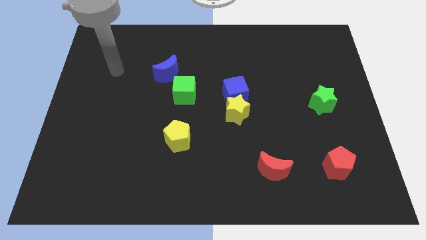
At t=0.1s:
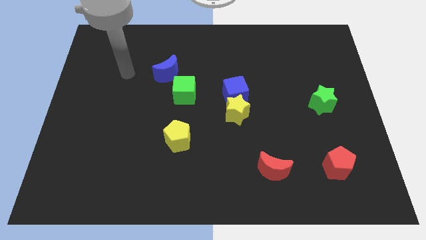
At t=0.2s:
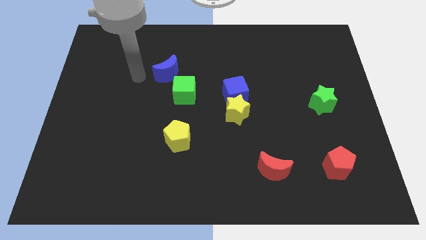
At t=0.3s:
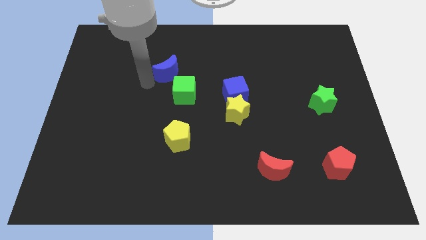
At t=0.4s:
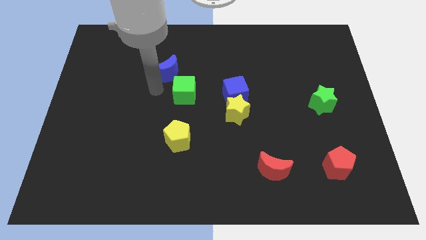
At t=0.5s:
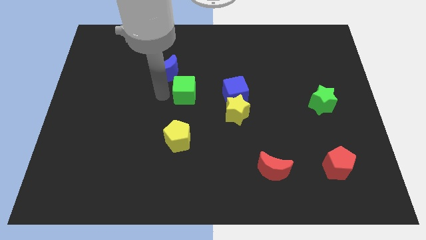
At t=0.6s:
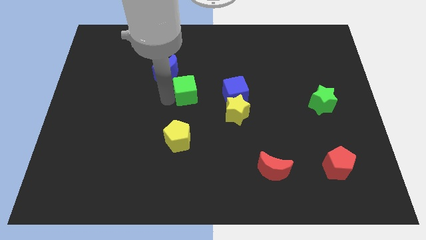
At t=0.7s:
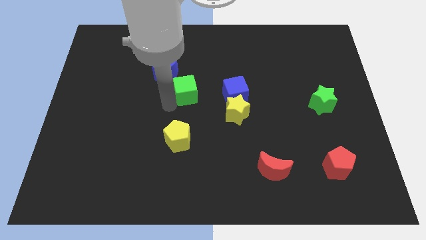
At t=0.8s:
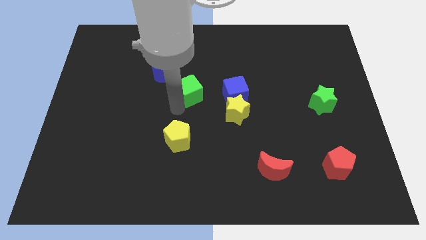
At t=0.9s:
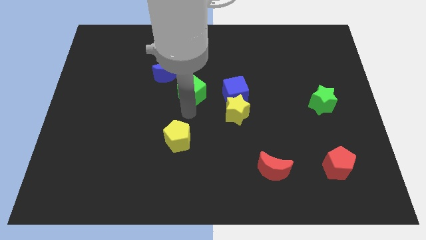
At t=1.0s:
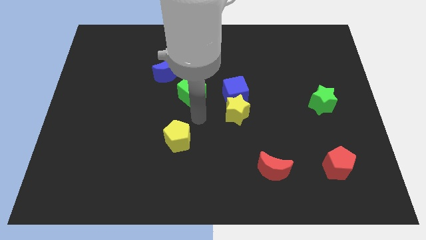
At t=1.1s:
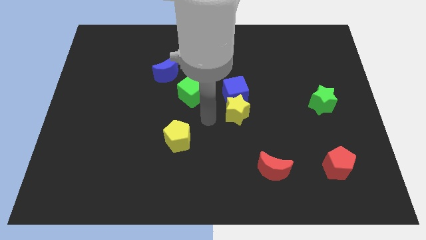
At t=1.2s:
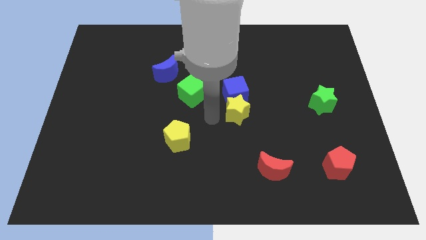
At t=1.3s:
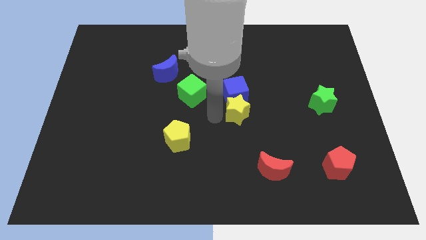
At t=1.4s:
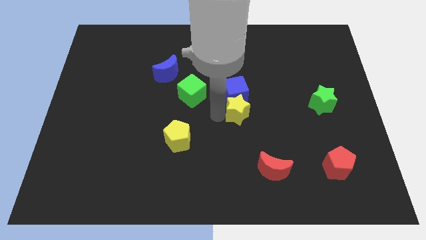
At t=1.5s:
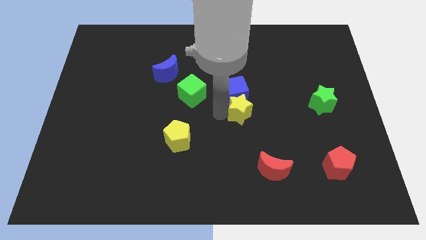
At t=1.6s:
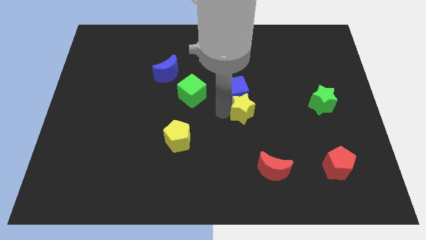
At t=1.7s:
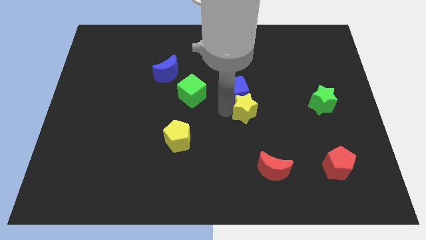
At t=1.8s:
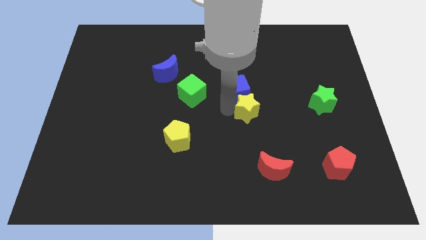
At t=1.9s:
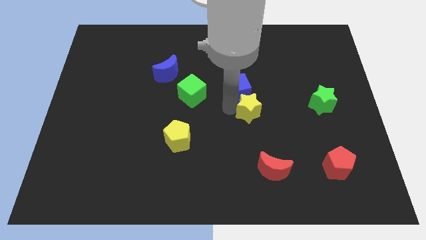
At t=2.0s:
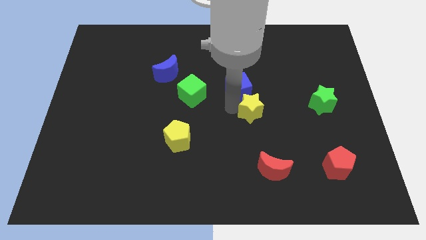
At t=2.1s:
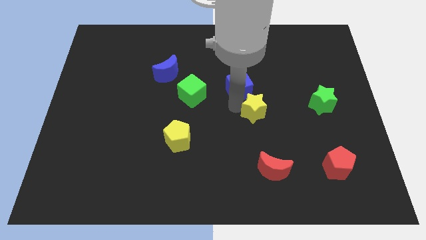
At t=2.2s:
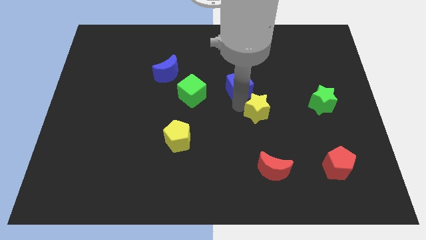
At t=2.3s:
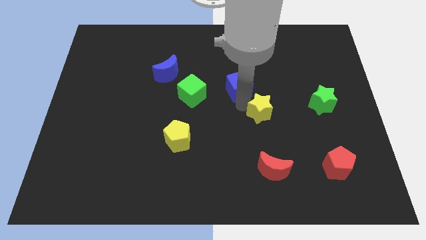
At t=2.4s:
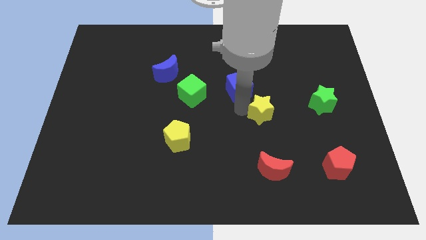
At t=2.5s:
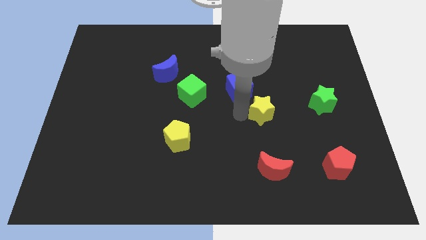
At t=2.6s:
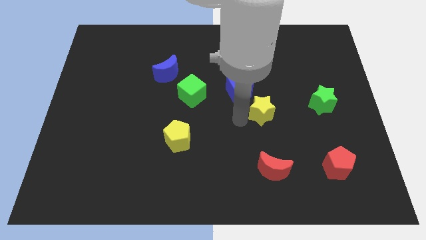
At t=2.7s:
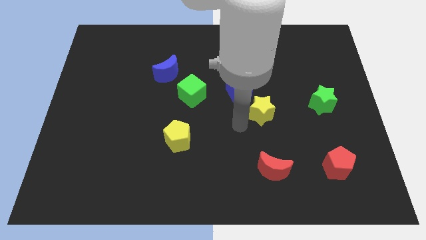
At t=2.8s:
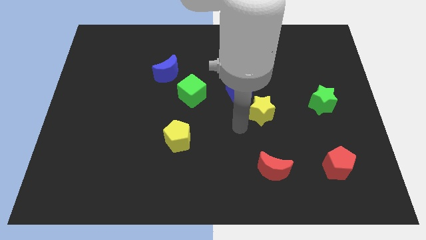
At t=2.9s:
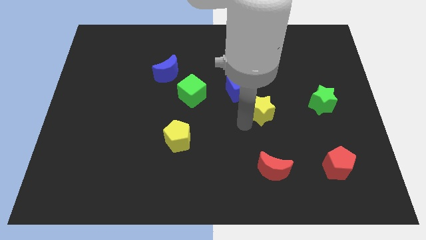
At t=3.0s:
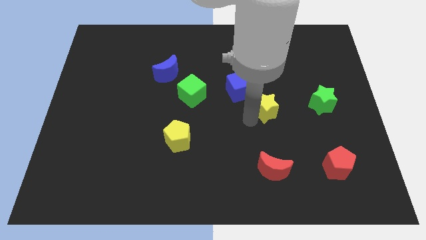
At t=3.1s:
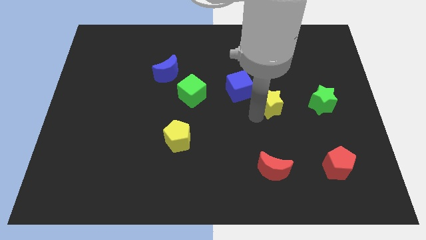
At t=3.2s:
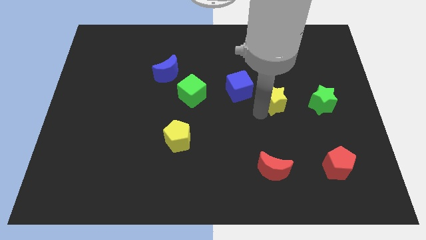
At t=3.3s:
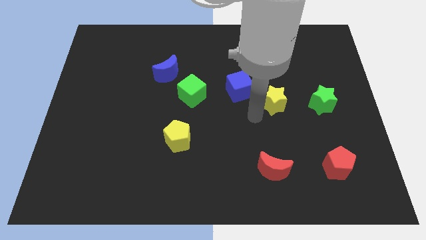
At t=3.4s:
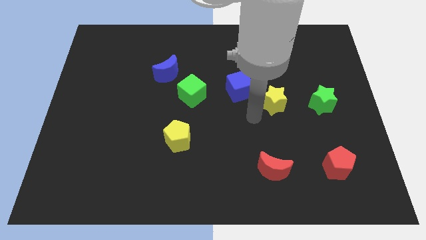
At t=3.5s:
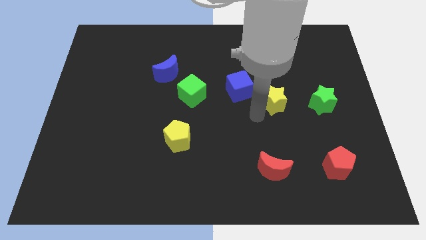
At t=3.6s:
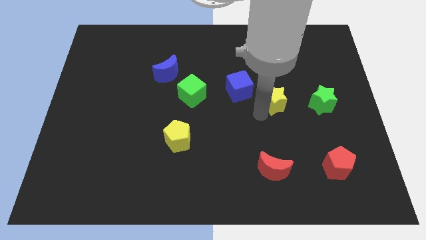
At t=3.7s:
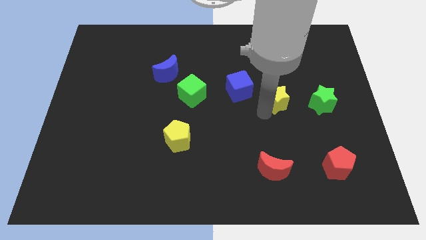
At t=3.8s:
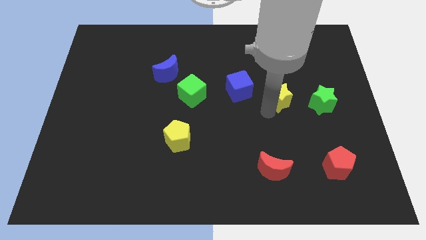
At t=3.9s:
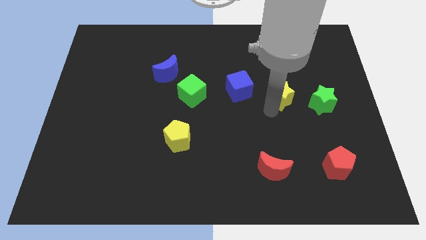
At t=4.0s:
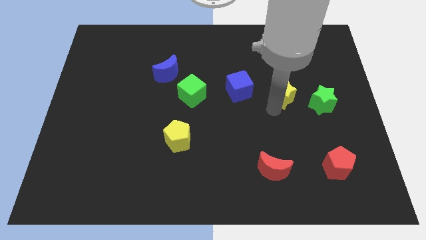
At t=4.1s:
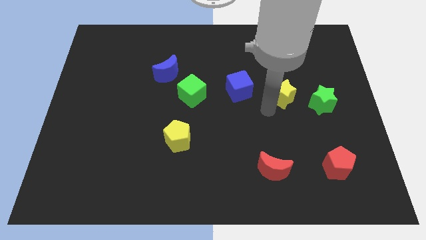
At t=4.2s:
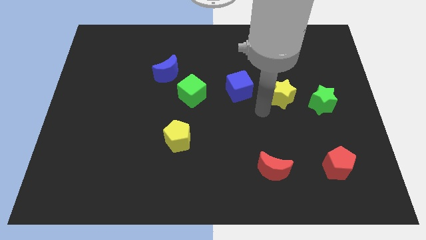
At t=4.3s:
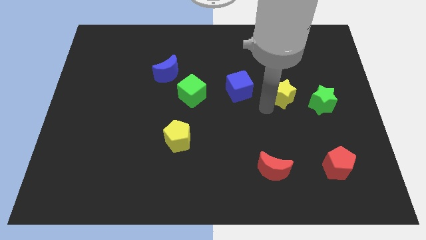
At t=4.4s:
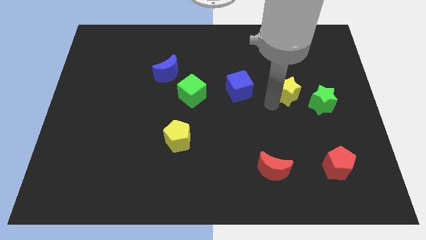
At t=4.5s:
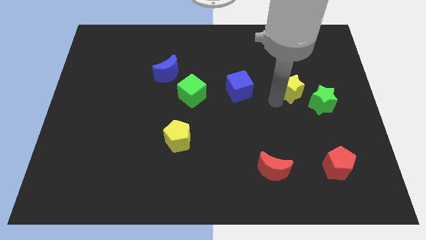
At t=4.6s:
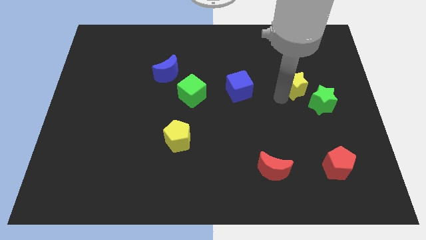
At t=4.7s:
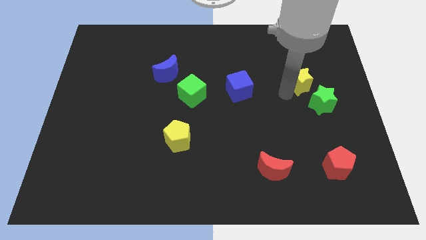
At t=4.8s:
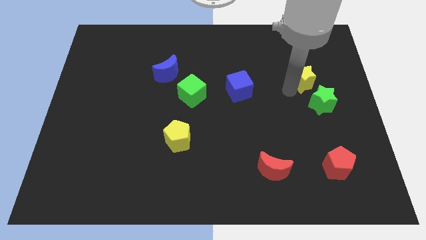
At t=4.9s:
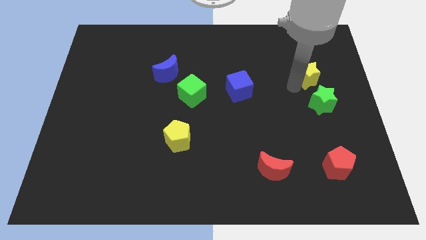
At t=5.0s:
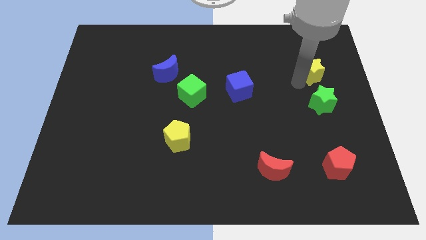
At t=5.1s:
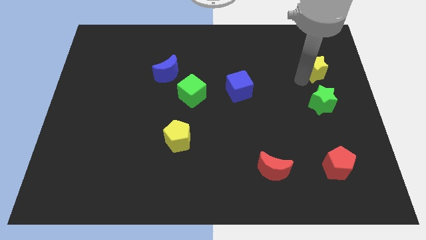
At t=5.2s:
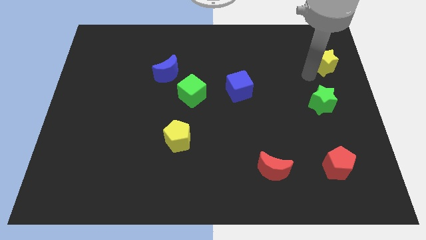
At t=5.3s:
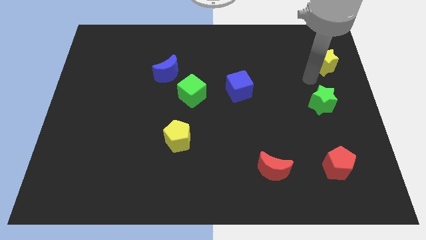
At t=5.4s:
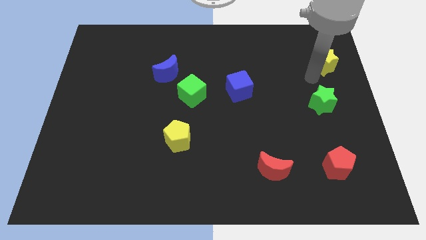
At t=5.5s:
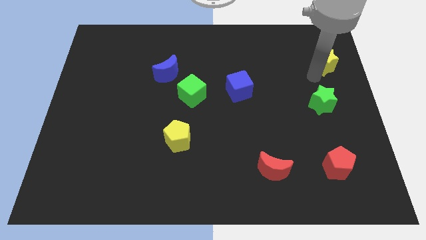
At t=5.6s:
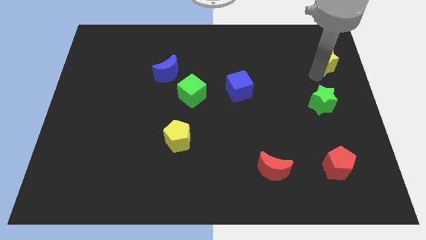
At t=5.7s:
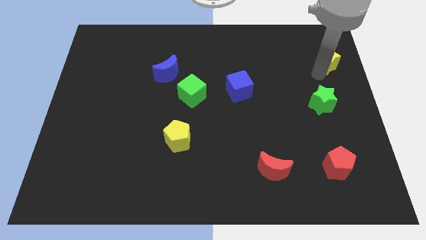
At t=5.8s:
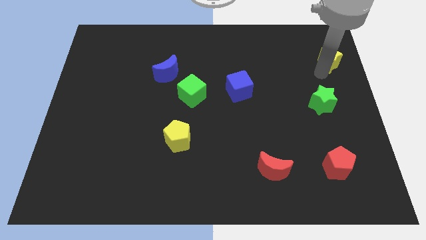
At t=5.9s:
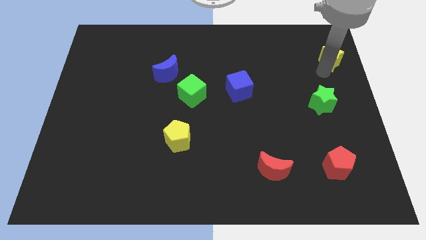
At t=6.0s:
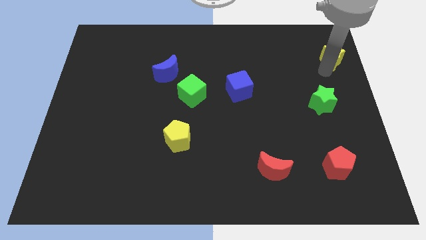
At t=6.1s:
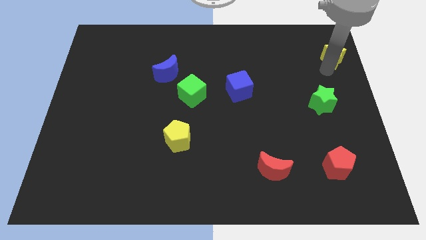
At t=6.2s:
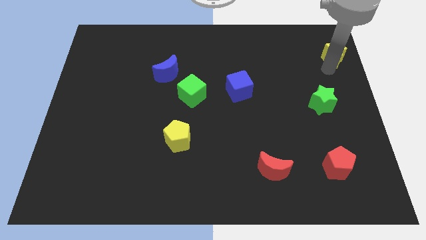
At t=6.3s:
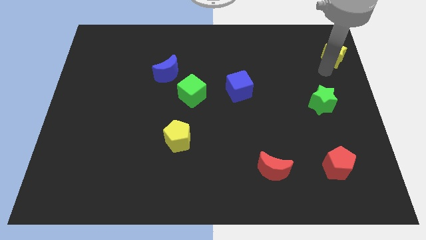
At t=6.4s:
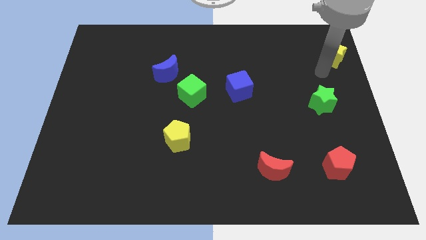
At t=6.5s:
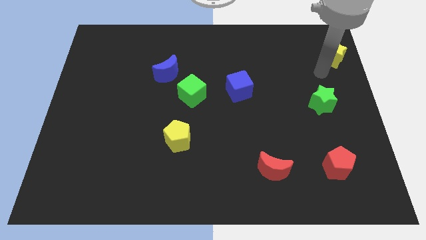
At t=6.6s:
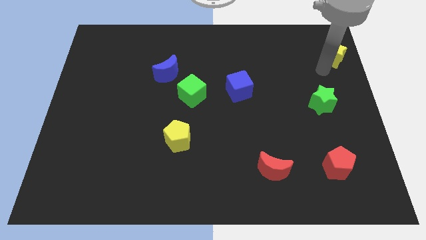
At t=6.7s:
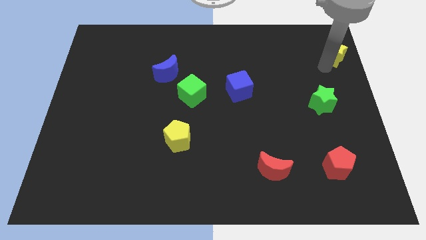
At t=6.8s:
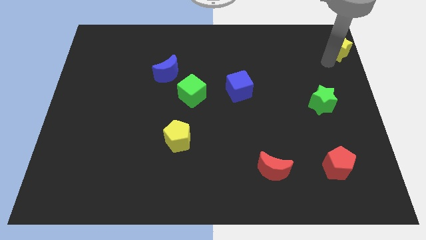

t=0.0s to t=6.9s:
slide the yellow star to the top right

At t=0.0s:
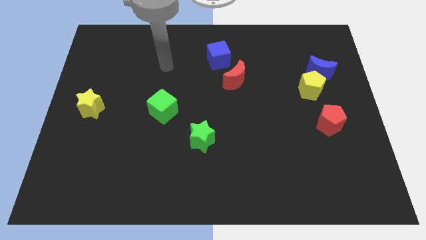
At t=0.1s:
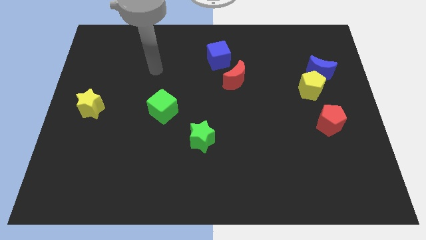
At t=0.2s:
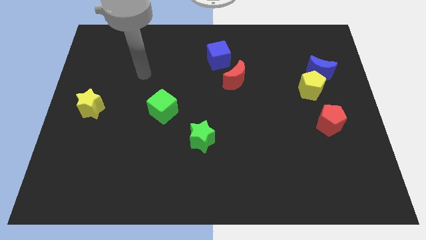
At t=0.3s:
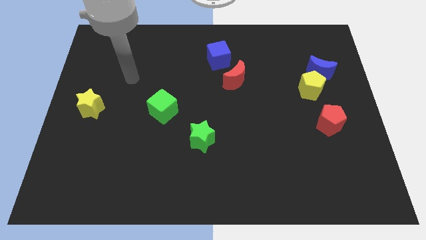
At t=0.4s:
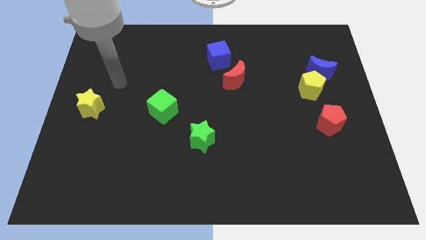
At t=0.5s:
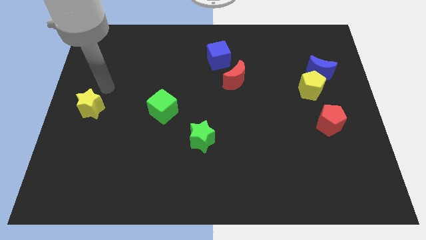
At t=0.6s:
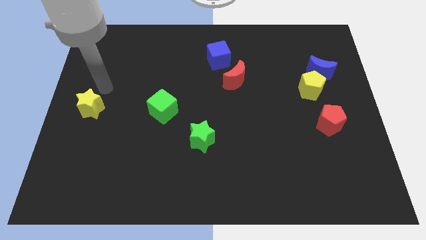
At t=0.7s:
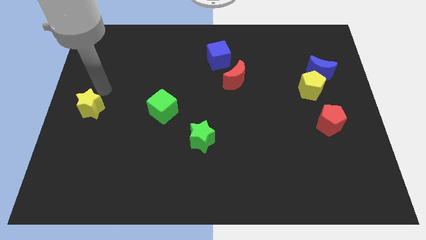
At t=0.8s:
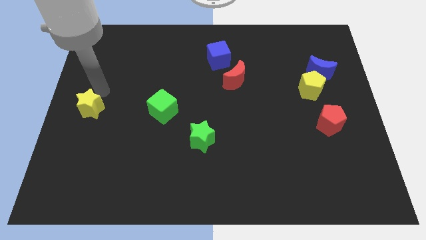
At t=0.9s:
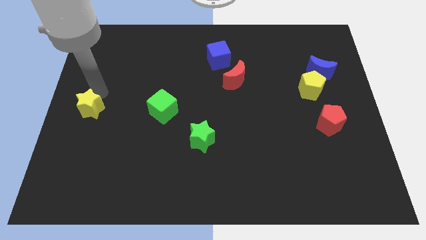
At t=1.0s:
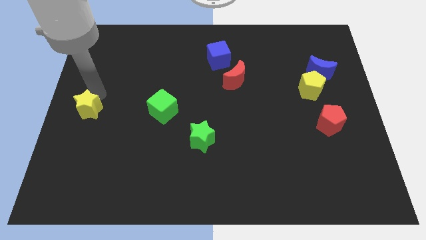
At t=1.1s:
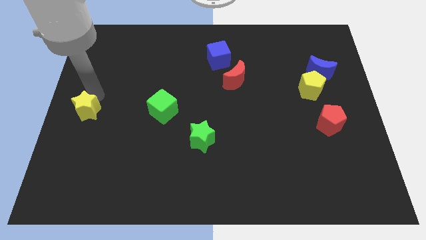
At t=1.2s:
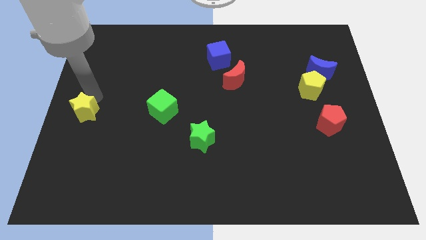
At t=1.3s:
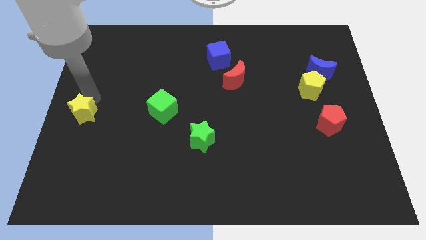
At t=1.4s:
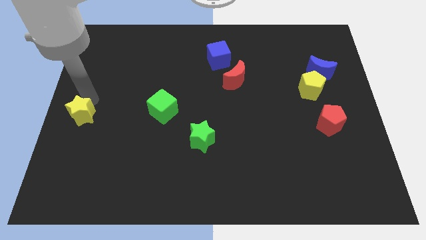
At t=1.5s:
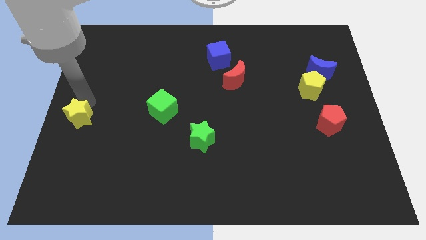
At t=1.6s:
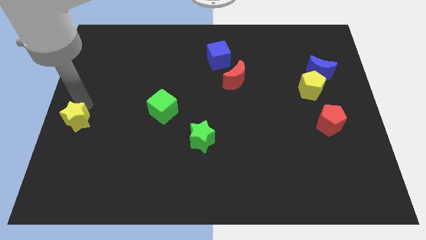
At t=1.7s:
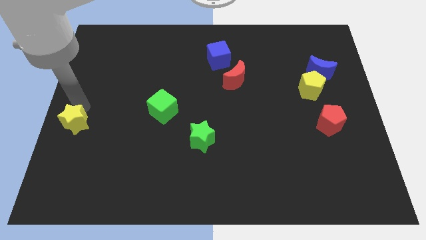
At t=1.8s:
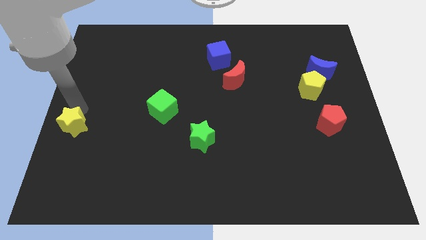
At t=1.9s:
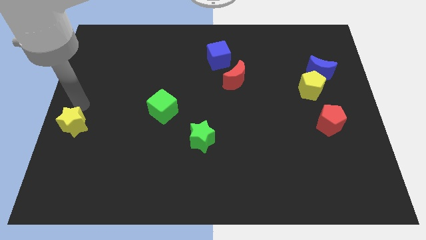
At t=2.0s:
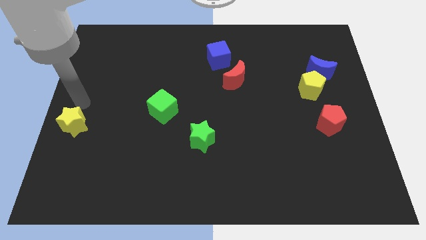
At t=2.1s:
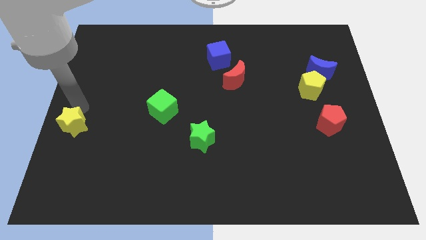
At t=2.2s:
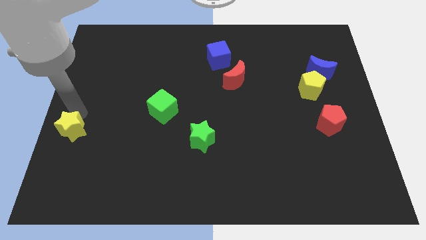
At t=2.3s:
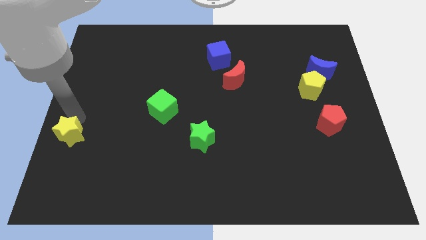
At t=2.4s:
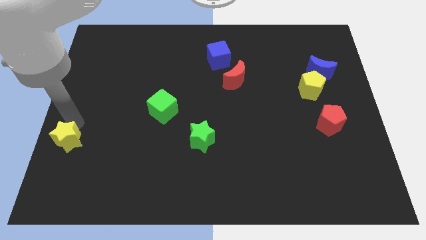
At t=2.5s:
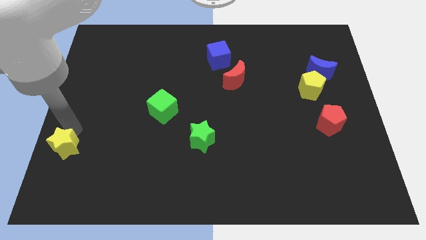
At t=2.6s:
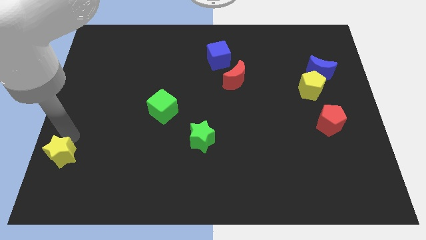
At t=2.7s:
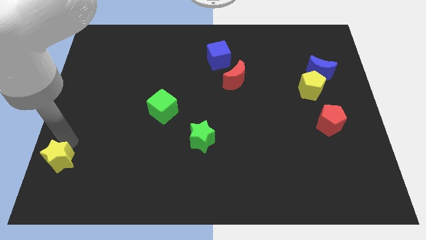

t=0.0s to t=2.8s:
move the yellow star to the lower left corner
